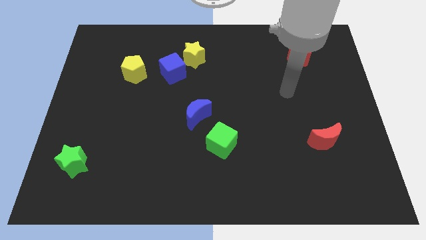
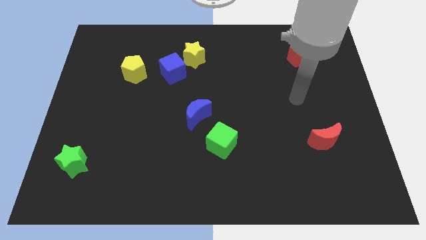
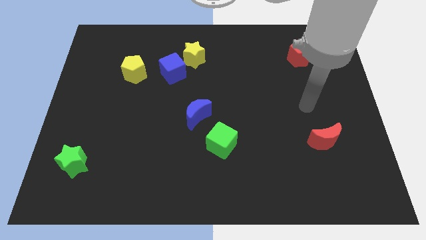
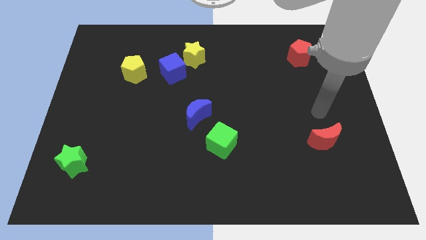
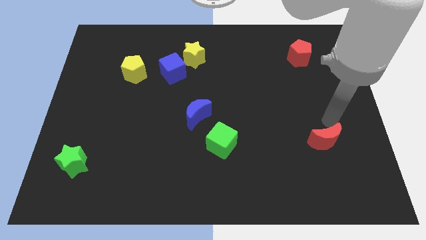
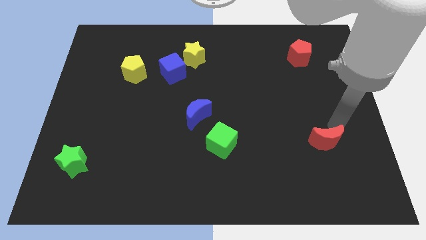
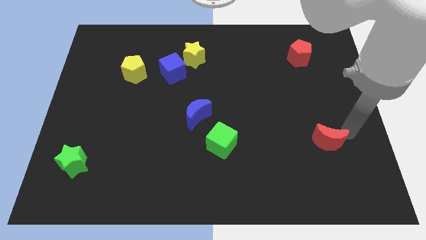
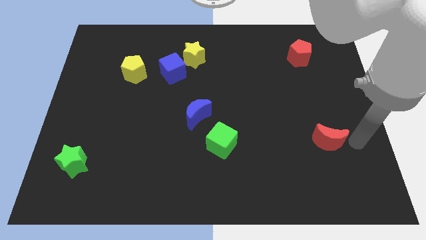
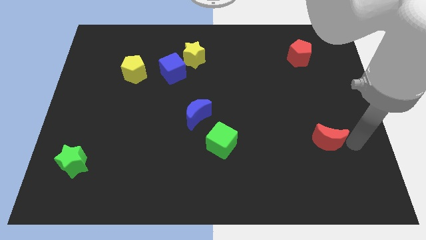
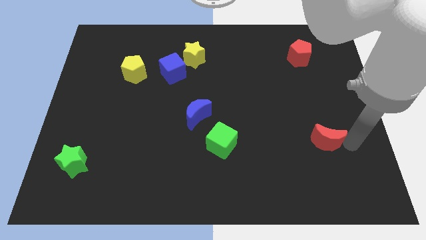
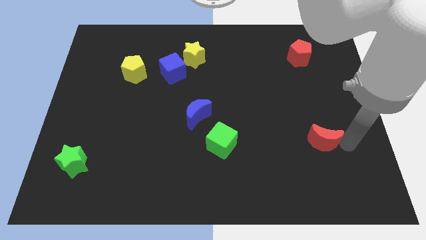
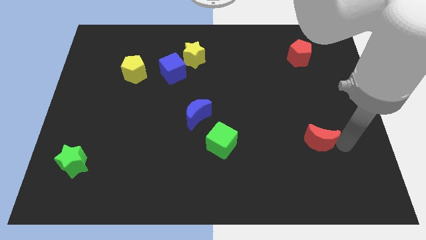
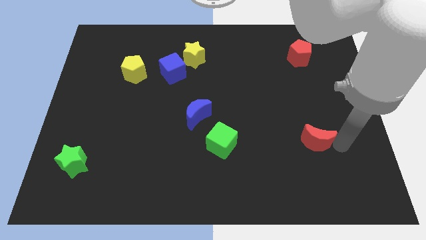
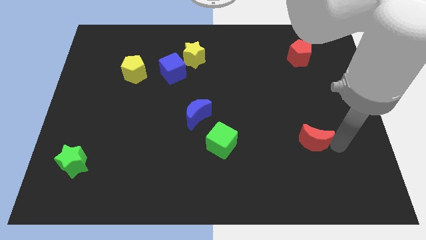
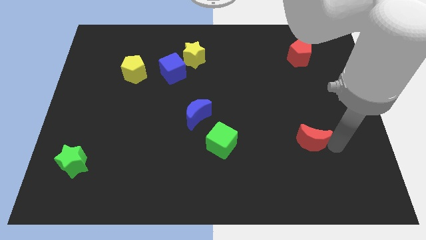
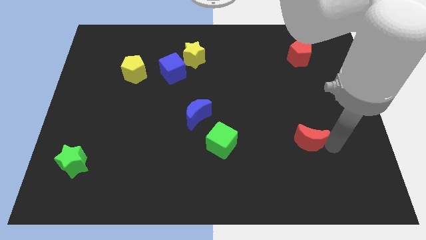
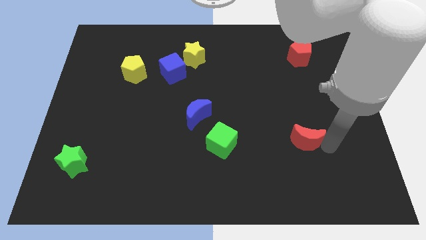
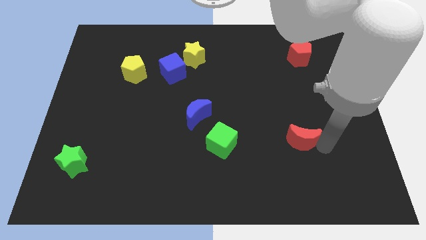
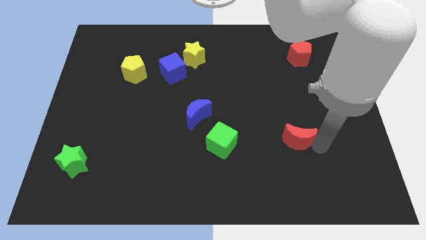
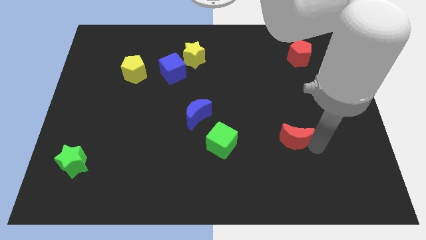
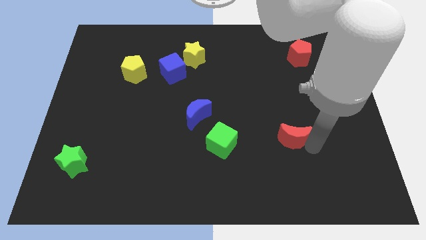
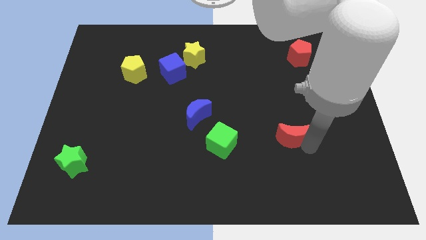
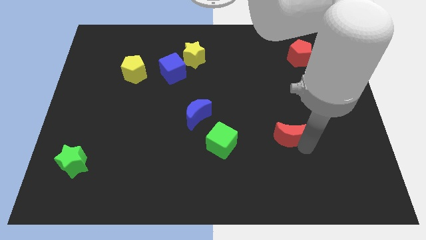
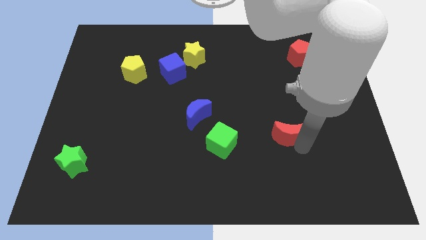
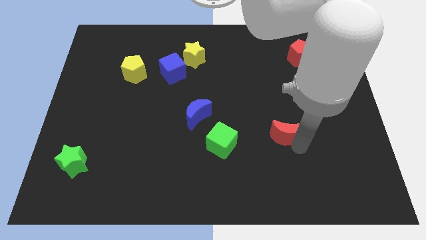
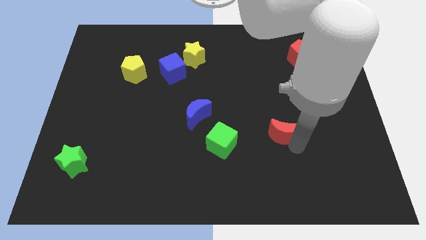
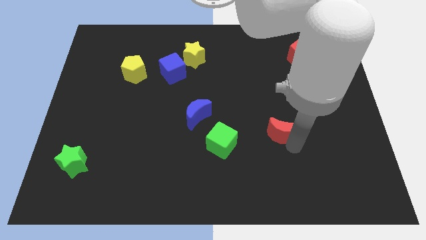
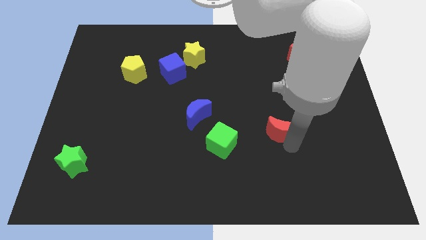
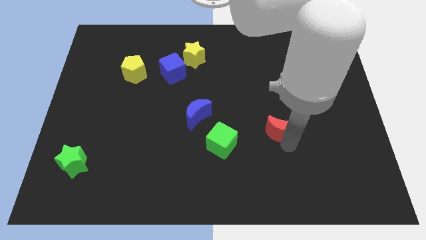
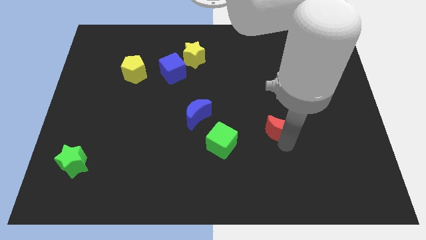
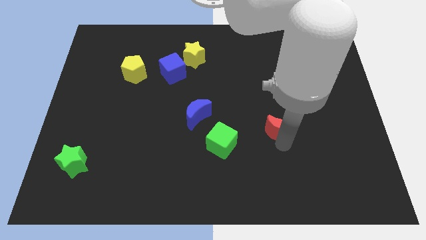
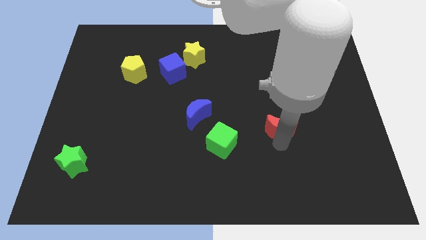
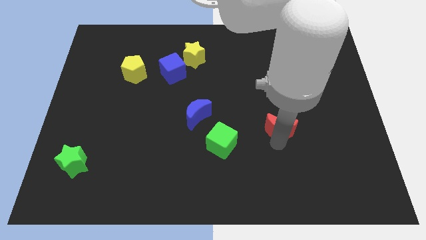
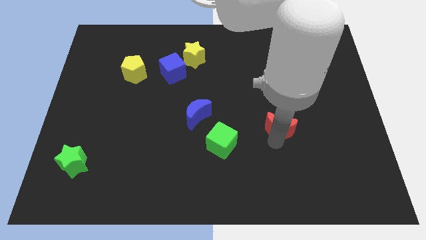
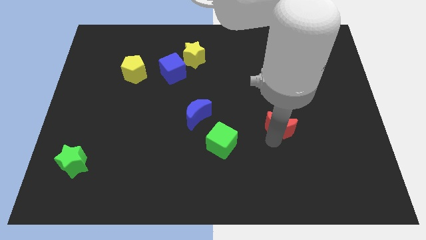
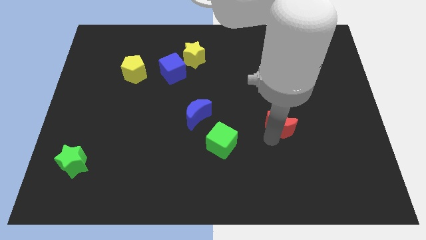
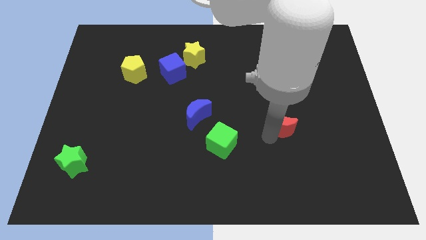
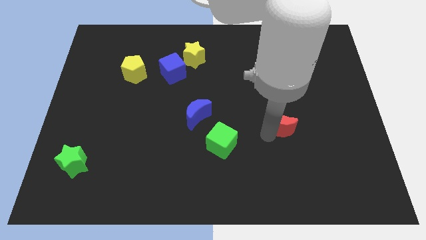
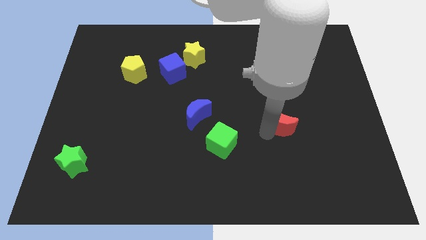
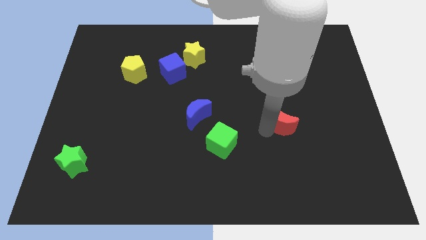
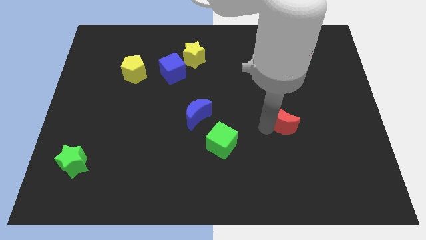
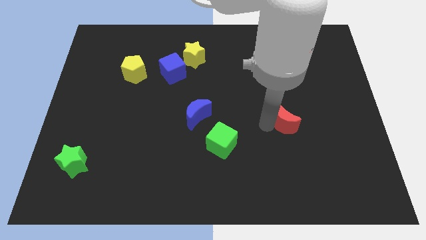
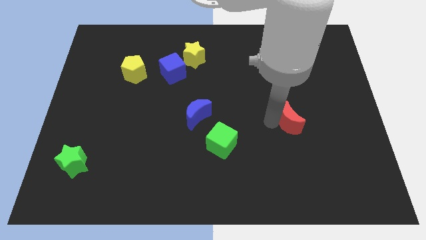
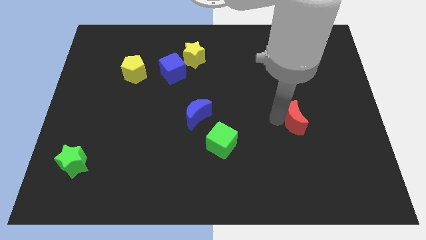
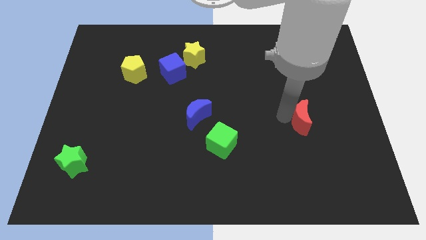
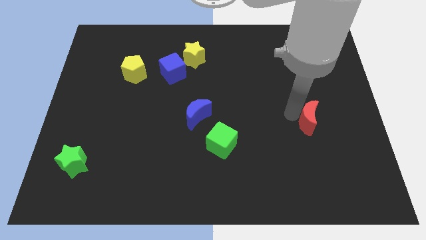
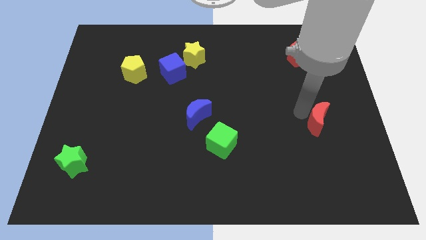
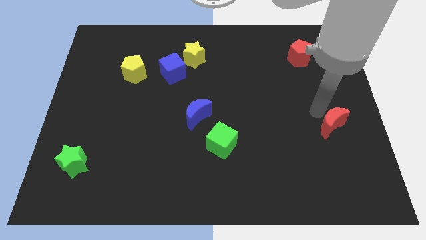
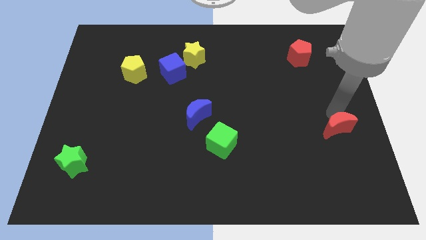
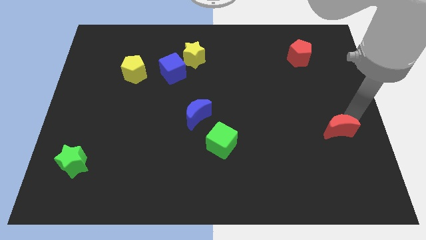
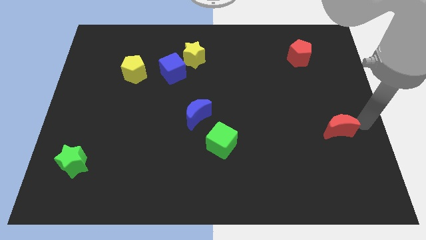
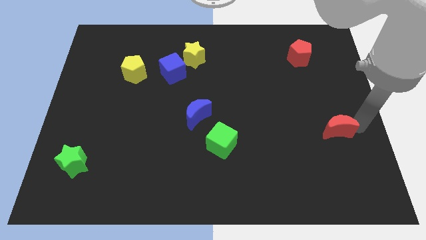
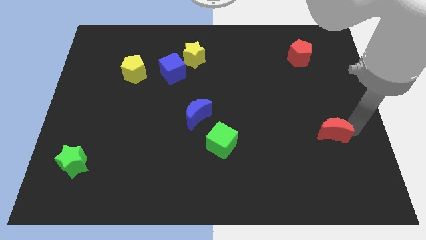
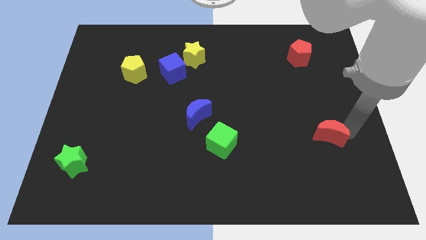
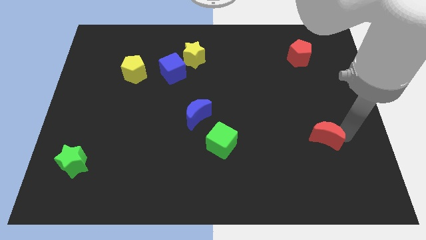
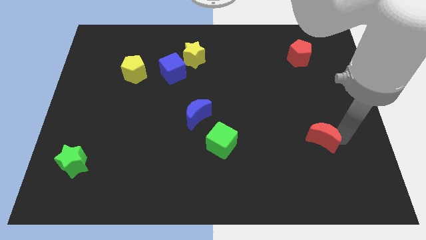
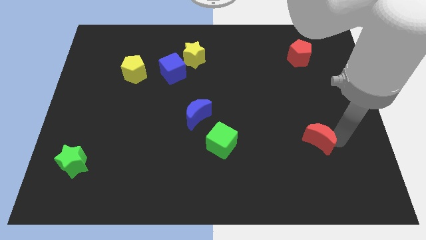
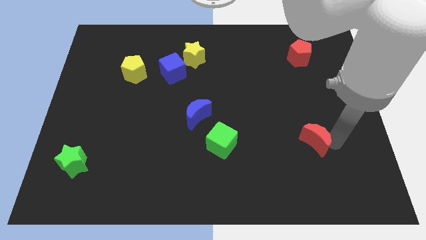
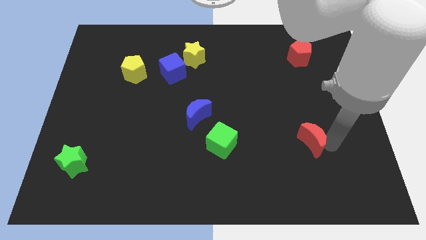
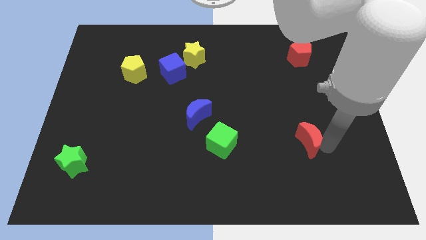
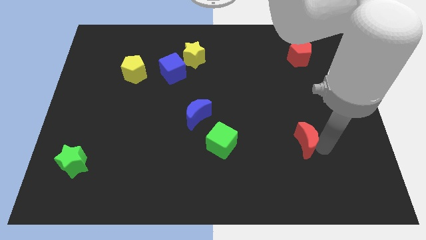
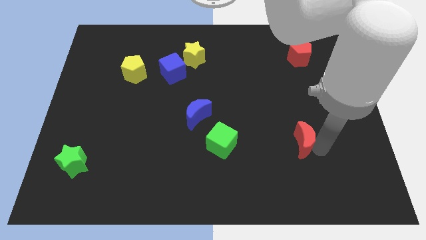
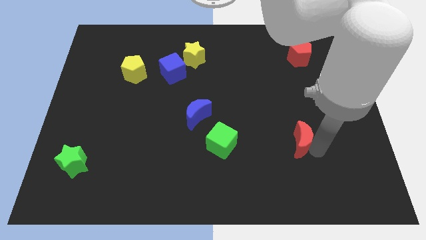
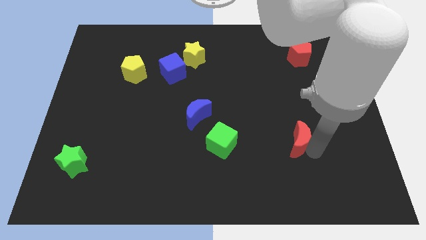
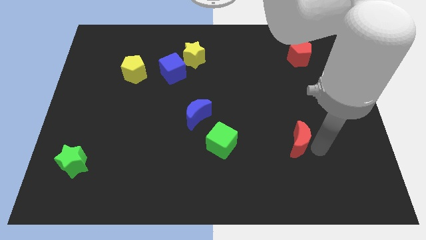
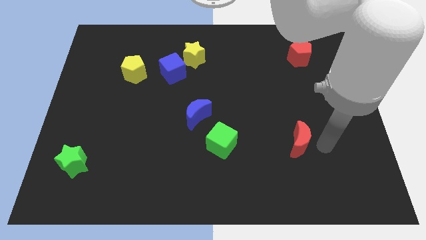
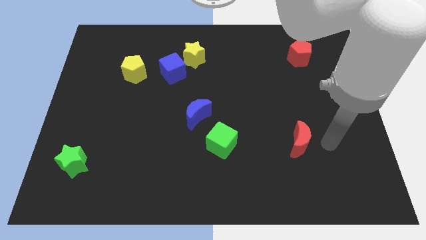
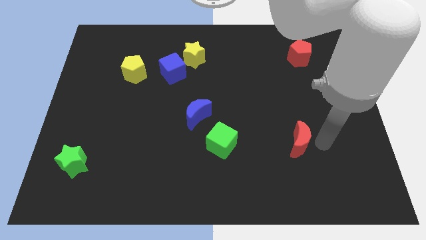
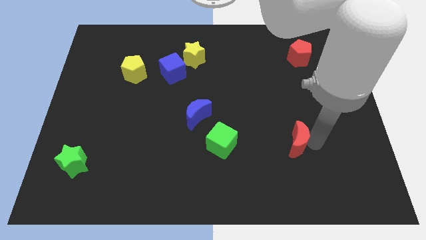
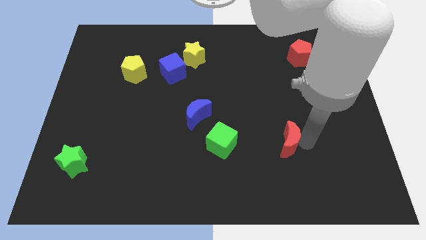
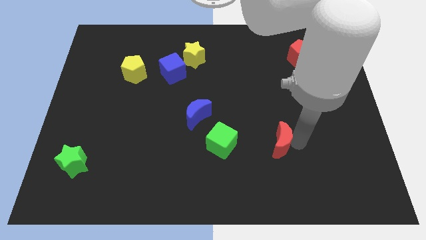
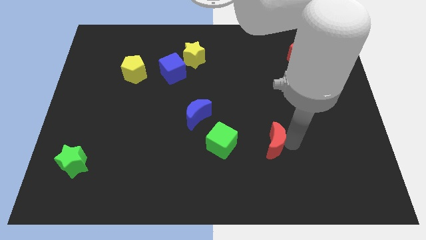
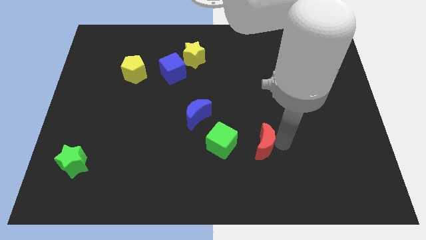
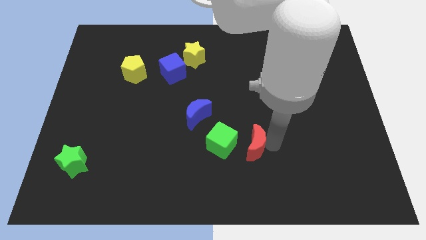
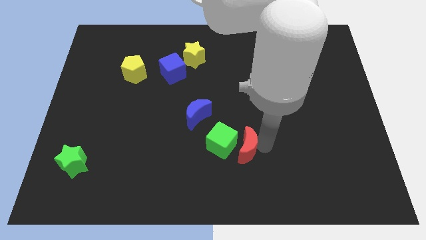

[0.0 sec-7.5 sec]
put the red moon next to the green cube
